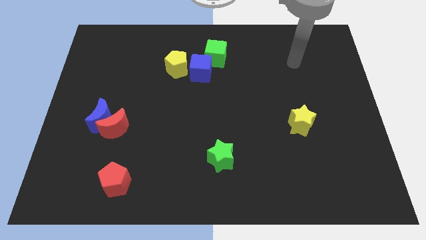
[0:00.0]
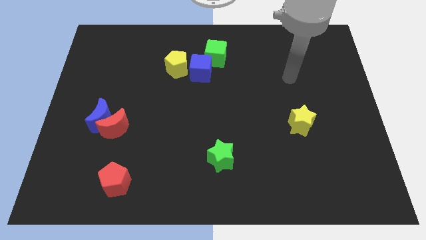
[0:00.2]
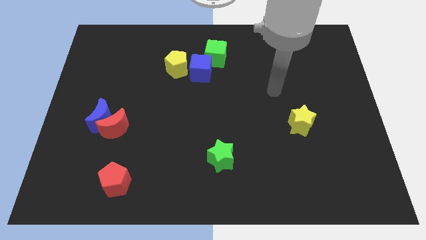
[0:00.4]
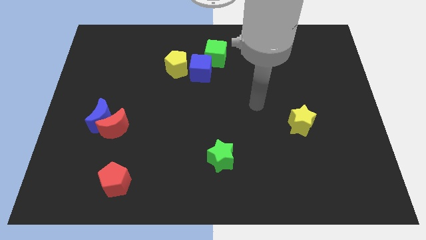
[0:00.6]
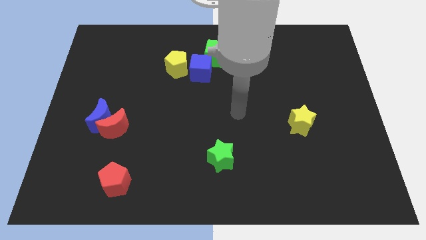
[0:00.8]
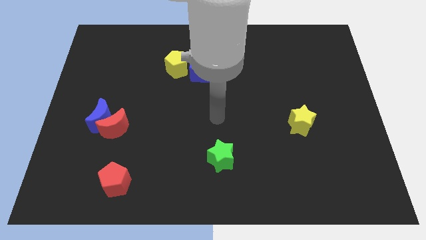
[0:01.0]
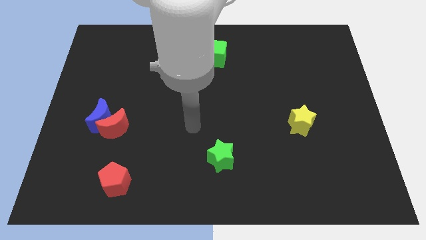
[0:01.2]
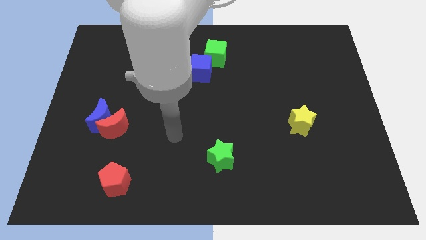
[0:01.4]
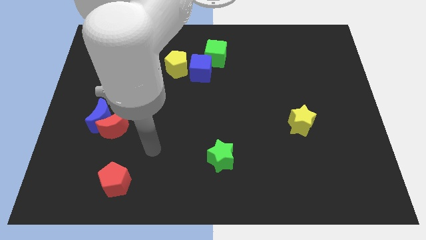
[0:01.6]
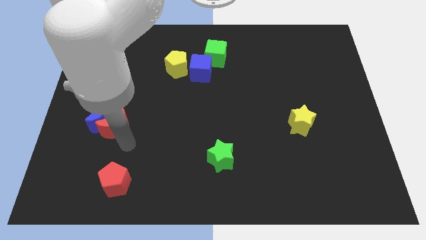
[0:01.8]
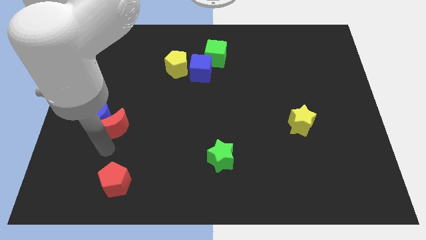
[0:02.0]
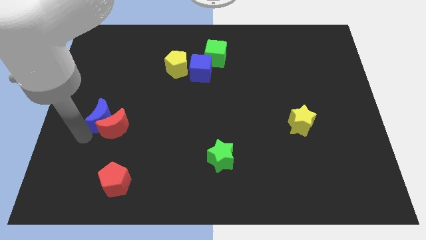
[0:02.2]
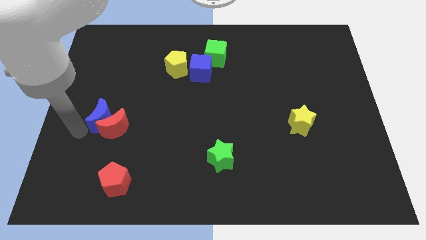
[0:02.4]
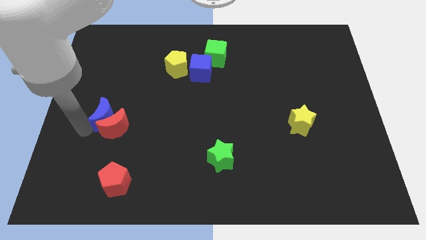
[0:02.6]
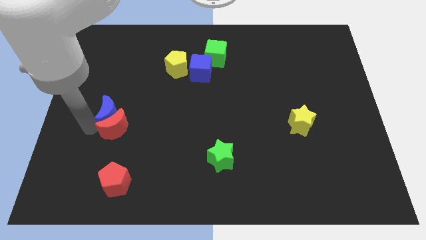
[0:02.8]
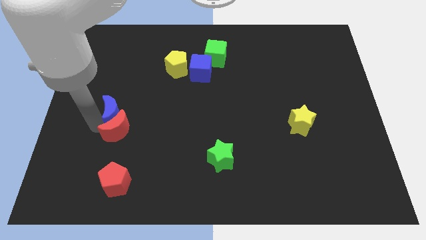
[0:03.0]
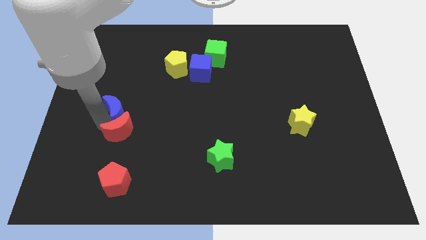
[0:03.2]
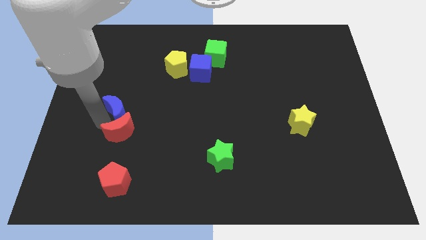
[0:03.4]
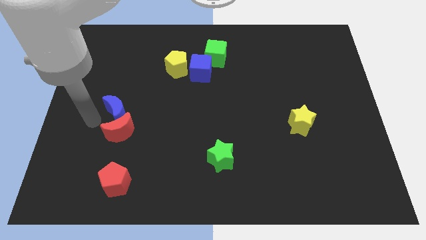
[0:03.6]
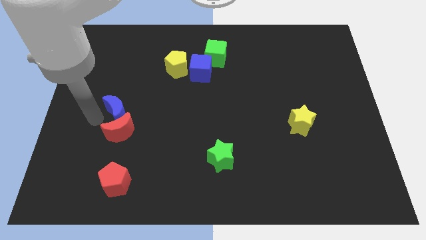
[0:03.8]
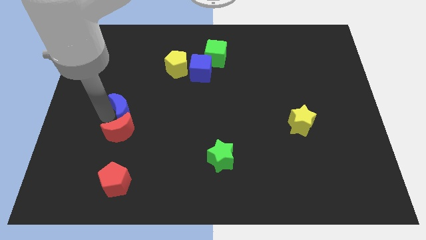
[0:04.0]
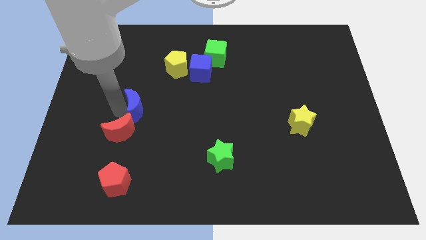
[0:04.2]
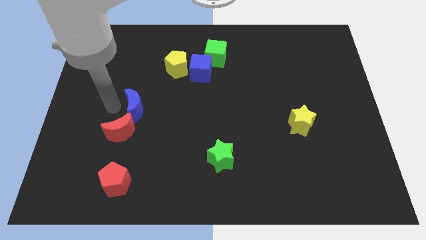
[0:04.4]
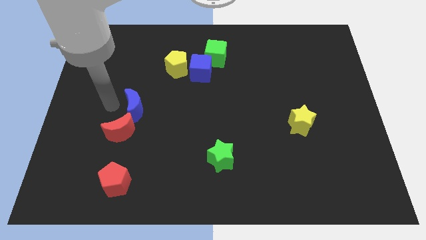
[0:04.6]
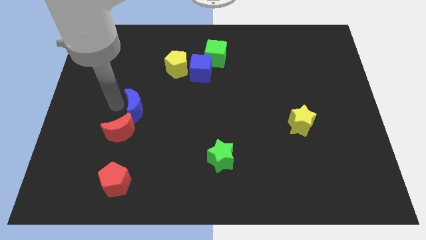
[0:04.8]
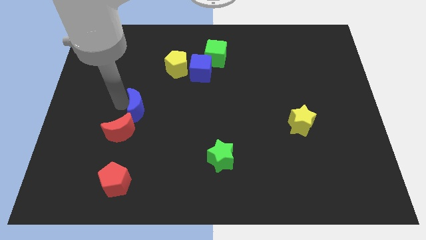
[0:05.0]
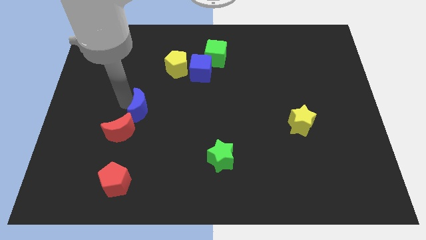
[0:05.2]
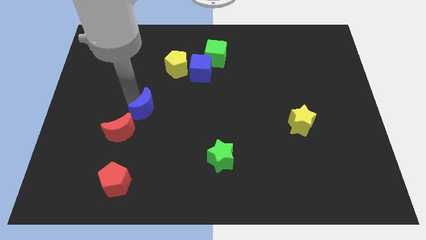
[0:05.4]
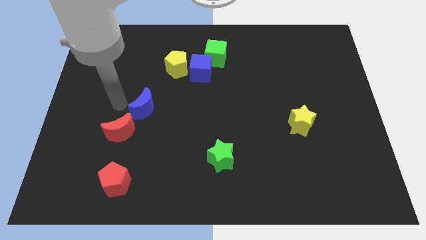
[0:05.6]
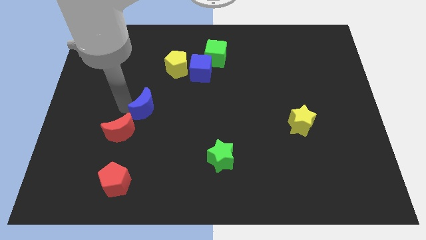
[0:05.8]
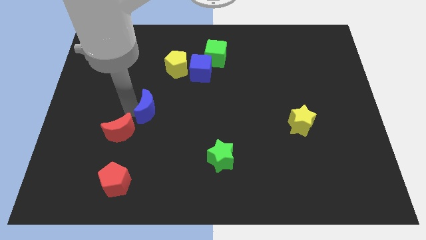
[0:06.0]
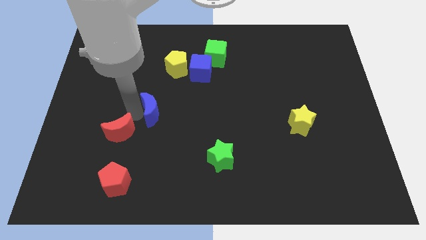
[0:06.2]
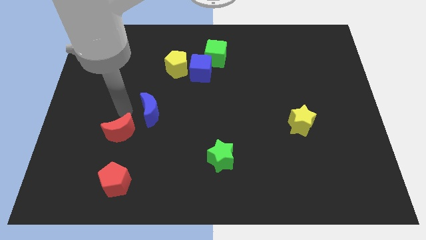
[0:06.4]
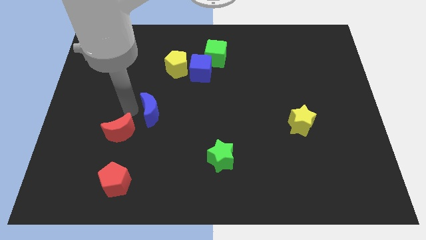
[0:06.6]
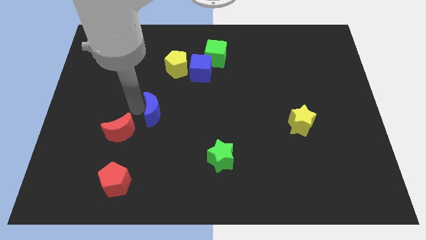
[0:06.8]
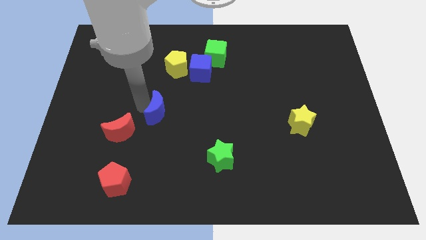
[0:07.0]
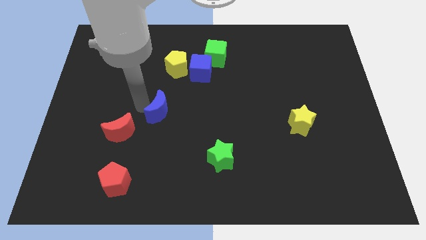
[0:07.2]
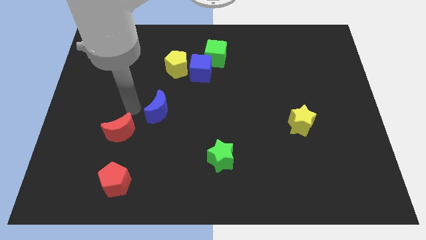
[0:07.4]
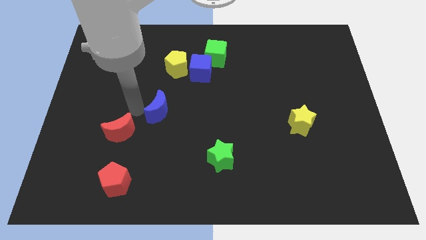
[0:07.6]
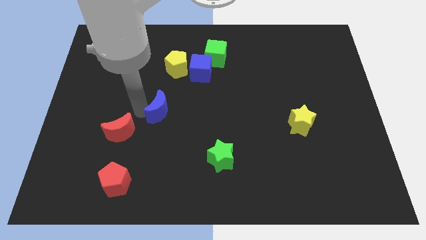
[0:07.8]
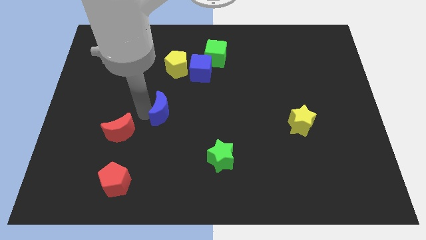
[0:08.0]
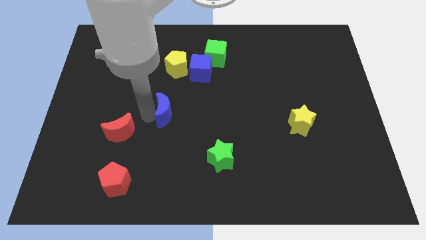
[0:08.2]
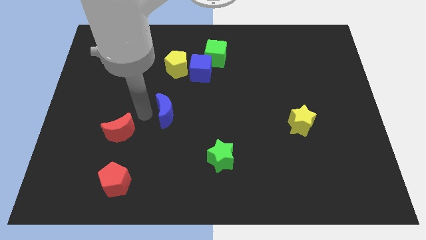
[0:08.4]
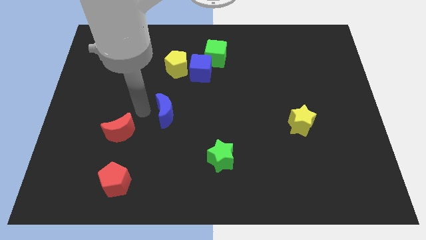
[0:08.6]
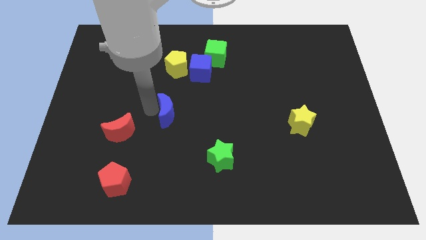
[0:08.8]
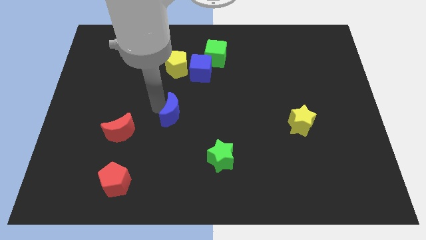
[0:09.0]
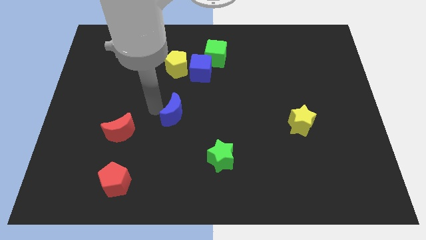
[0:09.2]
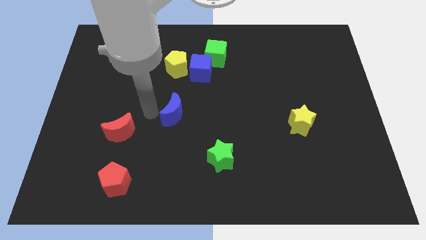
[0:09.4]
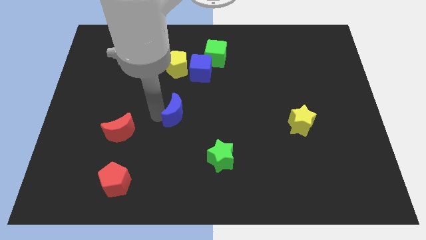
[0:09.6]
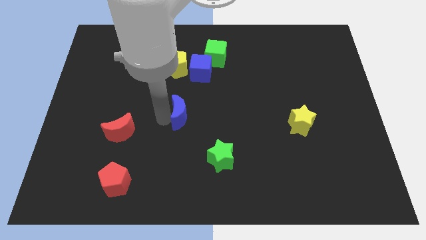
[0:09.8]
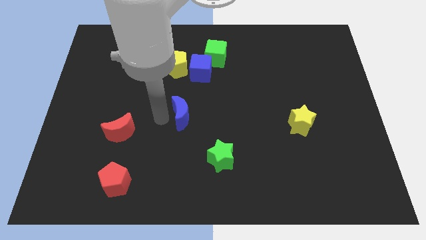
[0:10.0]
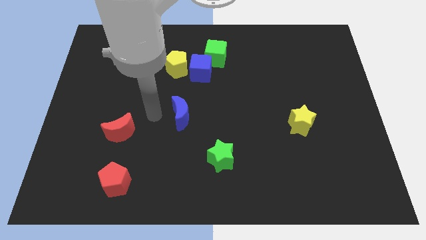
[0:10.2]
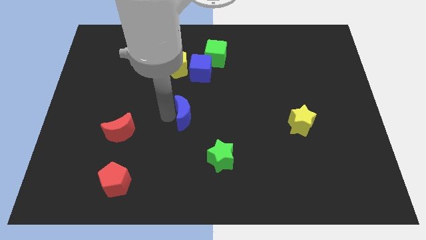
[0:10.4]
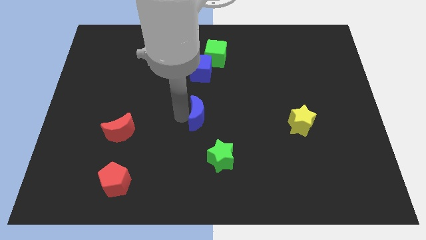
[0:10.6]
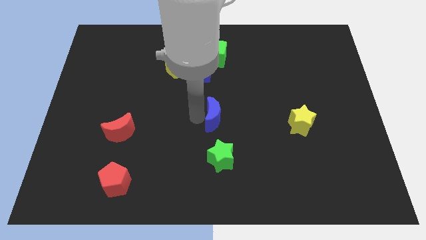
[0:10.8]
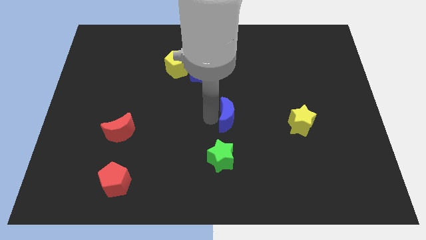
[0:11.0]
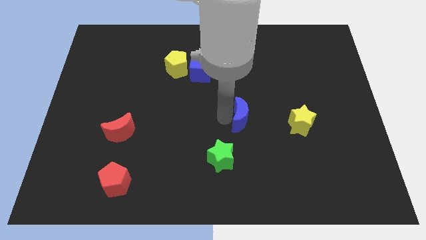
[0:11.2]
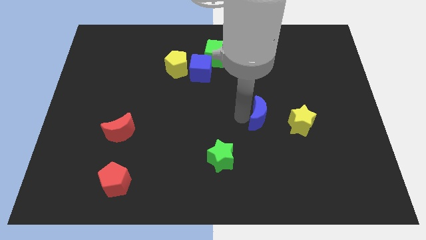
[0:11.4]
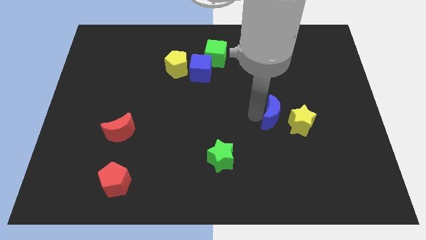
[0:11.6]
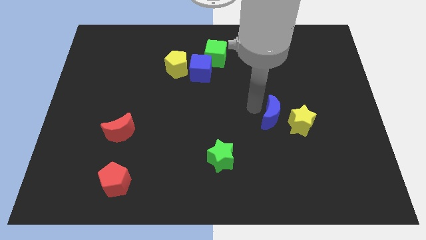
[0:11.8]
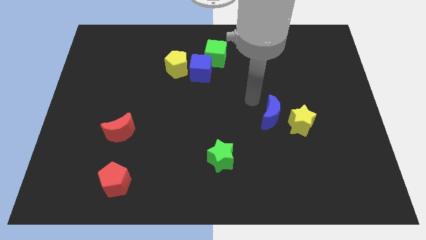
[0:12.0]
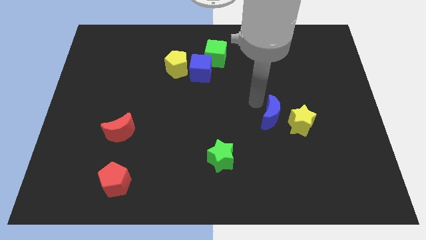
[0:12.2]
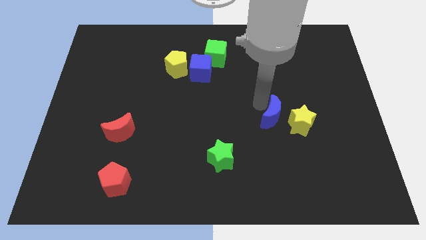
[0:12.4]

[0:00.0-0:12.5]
push the blue moon close to the yellow star

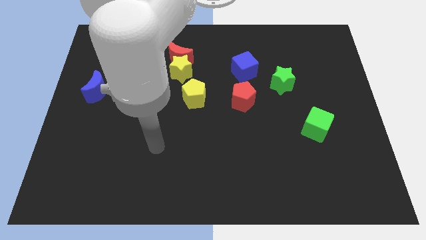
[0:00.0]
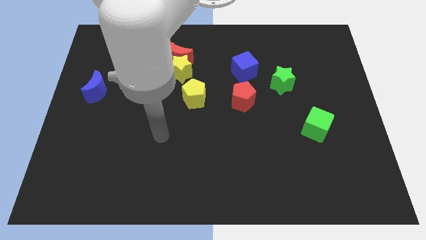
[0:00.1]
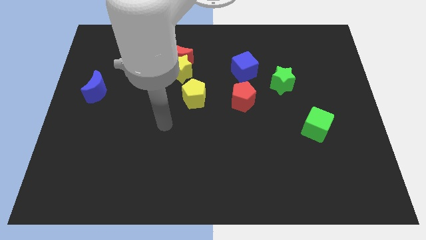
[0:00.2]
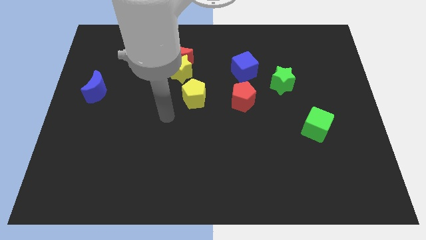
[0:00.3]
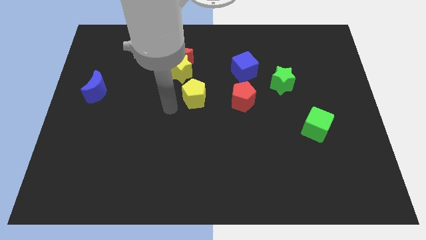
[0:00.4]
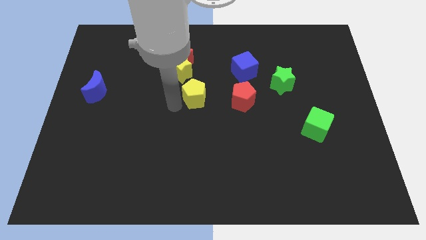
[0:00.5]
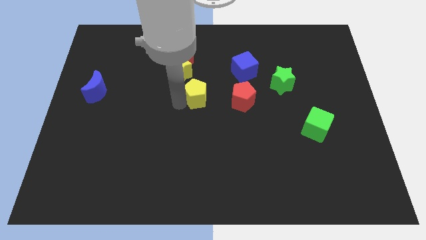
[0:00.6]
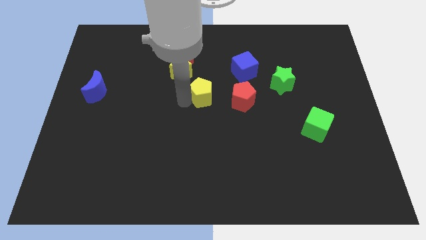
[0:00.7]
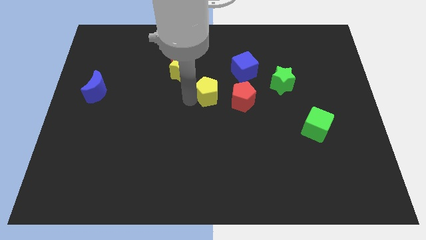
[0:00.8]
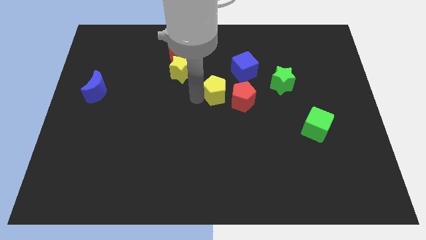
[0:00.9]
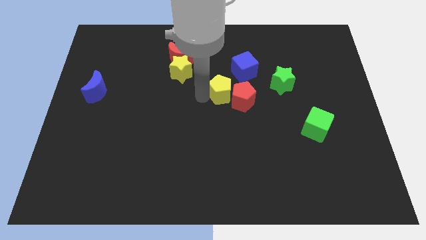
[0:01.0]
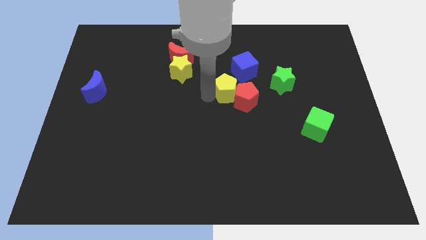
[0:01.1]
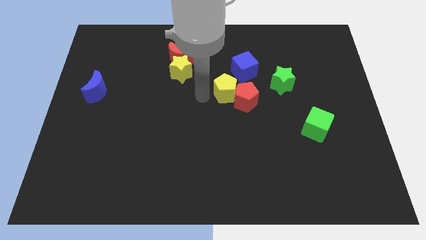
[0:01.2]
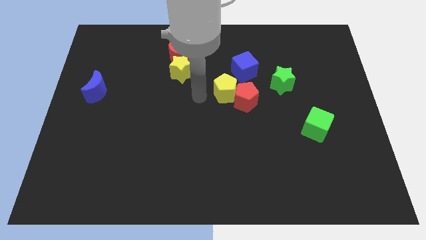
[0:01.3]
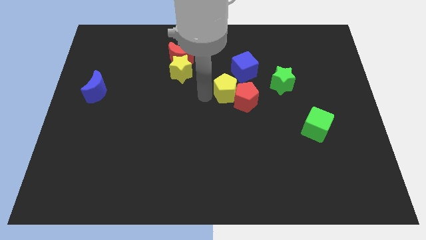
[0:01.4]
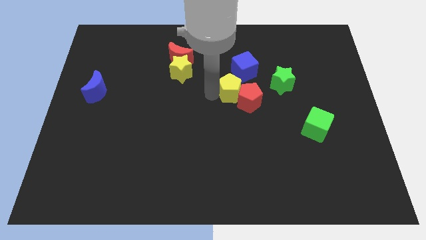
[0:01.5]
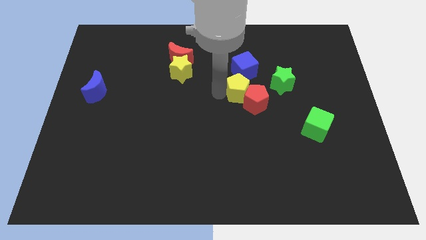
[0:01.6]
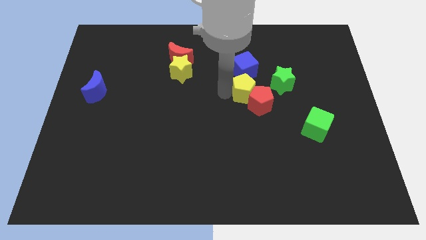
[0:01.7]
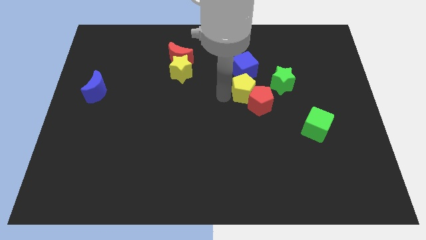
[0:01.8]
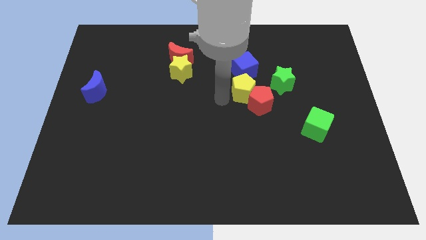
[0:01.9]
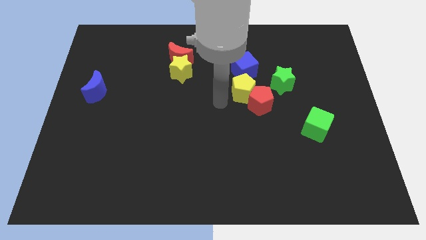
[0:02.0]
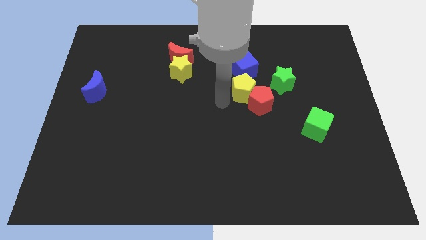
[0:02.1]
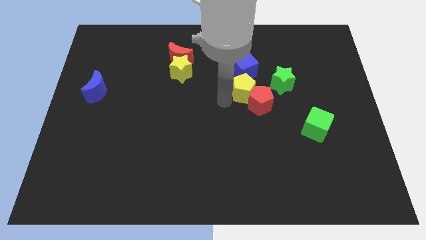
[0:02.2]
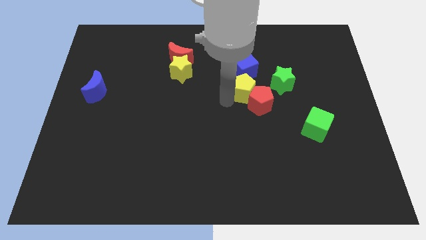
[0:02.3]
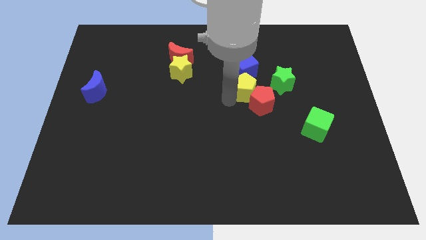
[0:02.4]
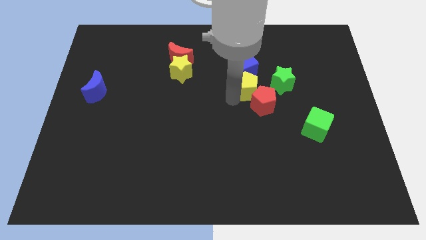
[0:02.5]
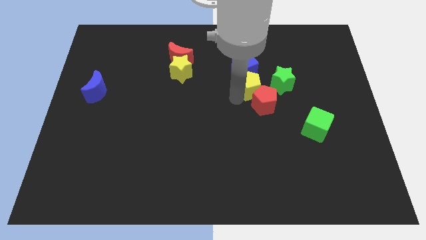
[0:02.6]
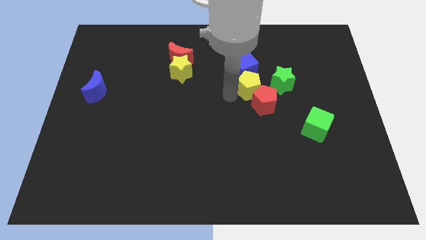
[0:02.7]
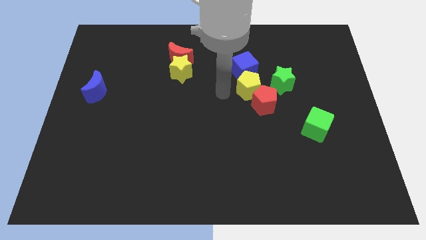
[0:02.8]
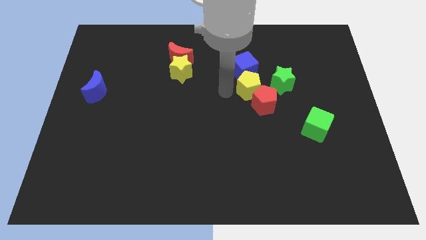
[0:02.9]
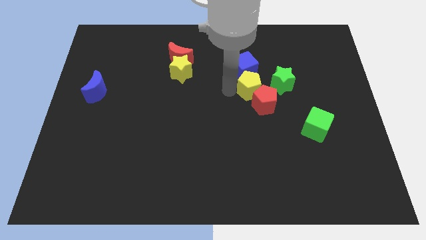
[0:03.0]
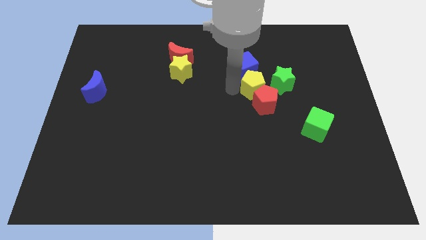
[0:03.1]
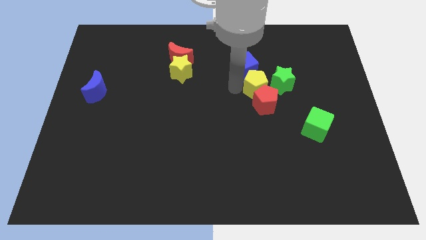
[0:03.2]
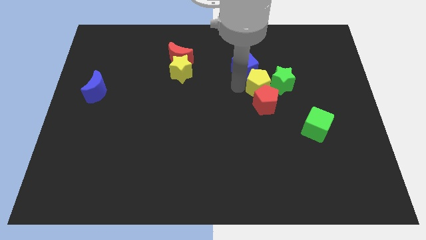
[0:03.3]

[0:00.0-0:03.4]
move the yellow pentagon to the green star
